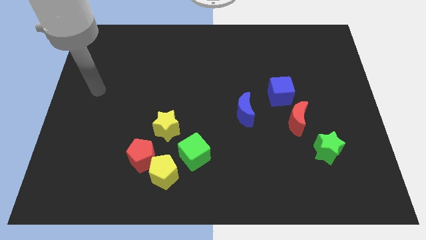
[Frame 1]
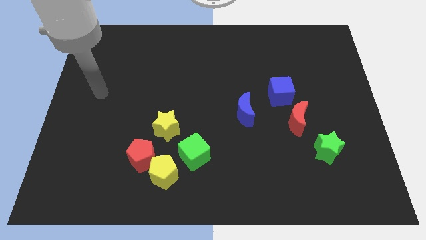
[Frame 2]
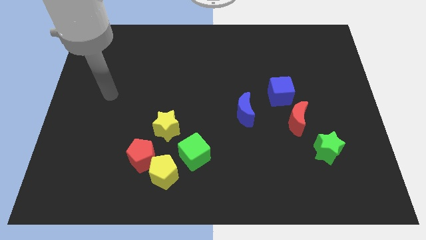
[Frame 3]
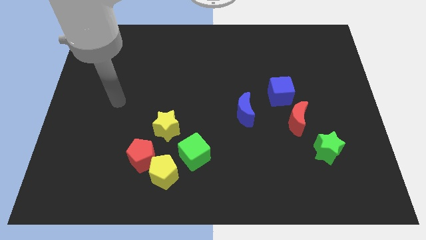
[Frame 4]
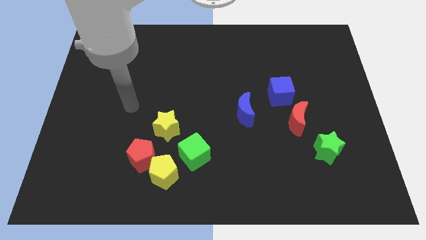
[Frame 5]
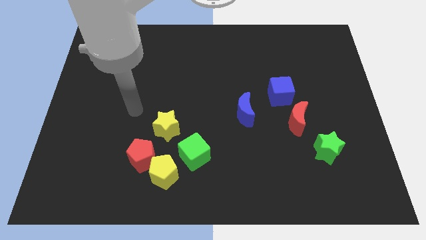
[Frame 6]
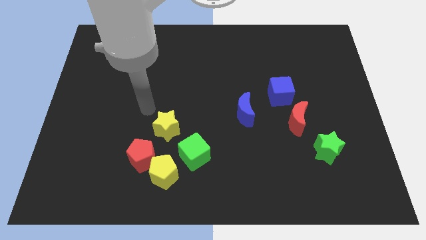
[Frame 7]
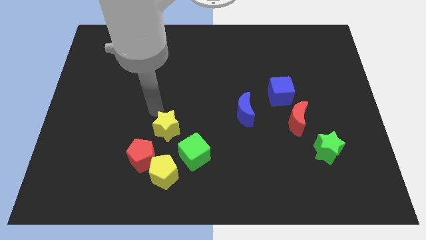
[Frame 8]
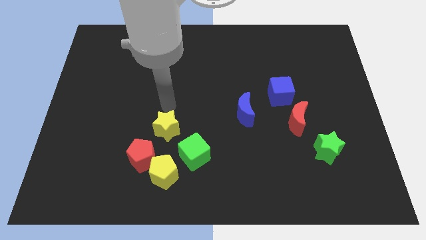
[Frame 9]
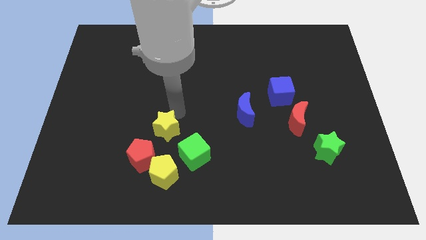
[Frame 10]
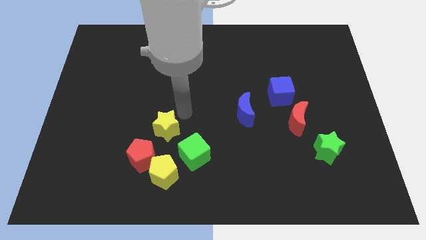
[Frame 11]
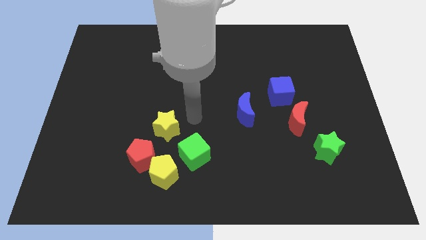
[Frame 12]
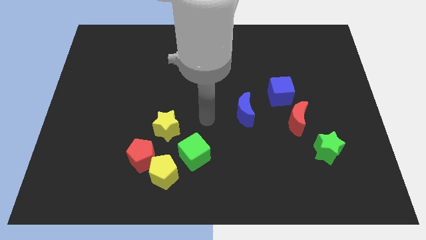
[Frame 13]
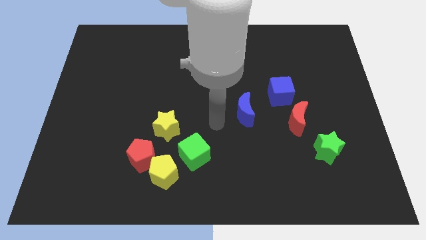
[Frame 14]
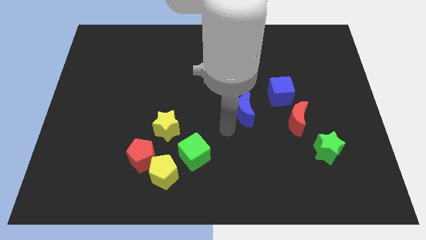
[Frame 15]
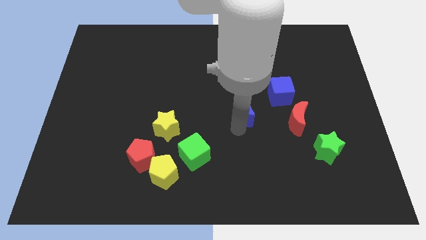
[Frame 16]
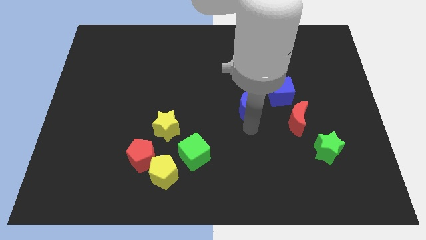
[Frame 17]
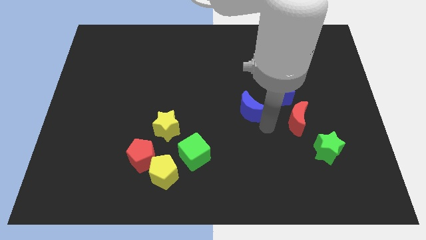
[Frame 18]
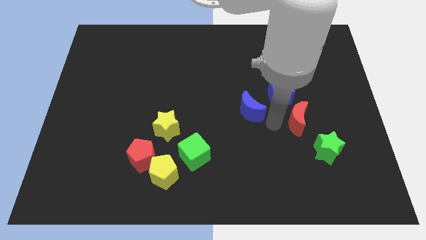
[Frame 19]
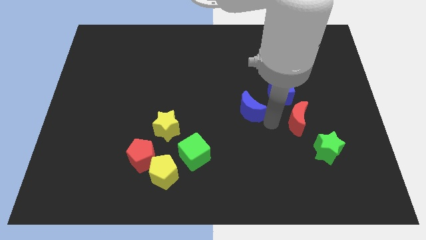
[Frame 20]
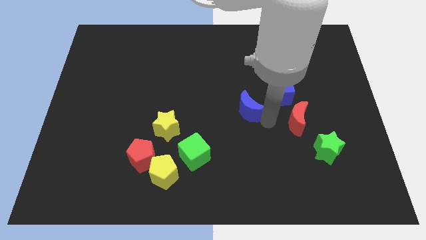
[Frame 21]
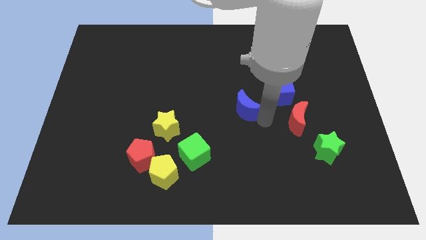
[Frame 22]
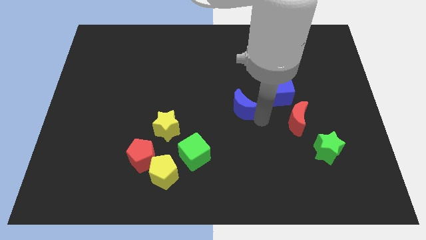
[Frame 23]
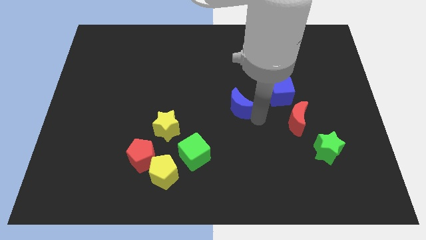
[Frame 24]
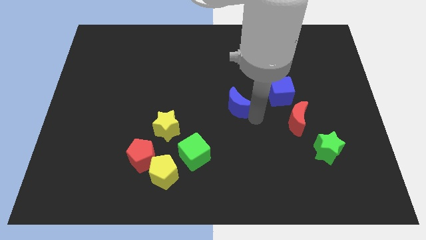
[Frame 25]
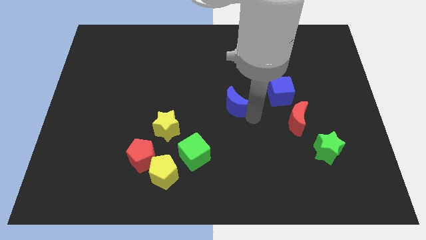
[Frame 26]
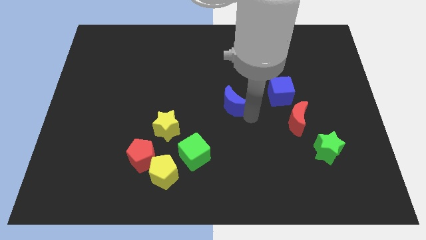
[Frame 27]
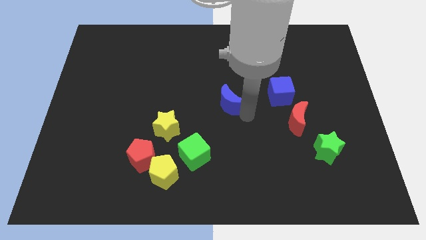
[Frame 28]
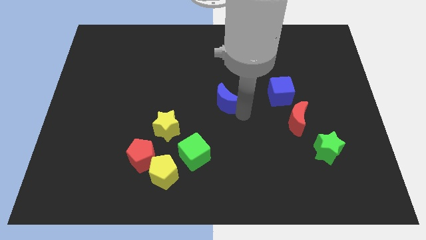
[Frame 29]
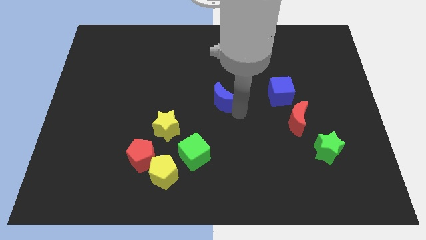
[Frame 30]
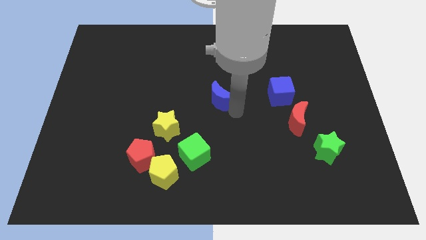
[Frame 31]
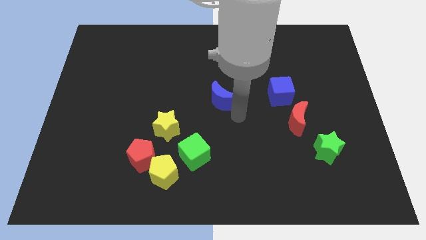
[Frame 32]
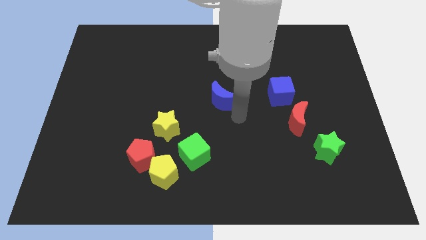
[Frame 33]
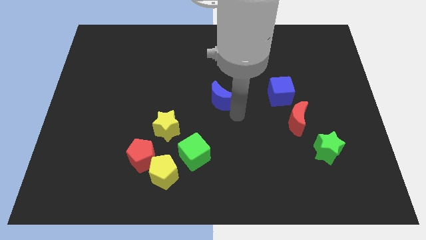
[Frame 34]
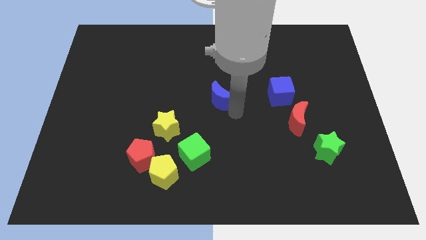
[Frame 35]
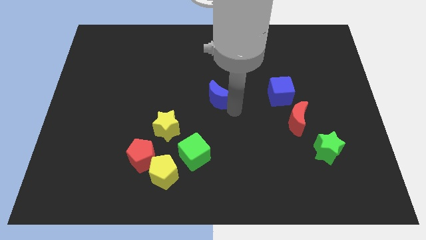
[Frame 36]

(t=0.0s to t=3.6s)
move the blue moon diagonally up and to the left slightly

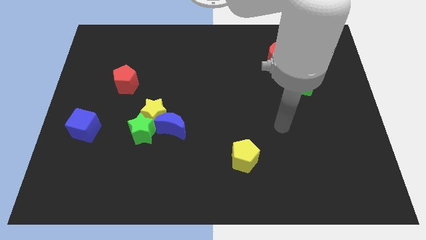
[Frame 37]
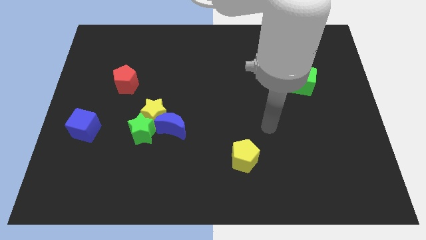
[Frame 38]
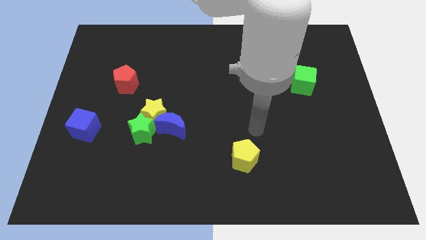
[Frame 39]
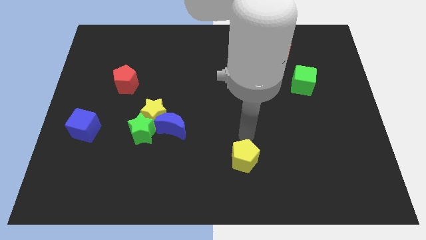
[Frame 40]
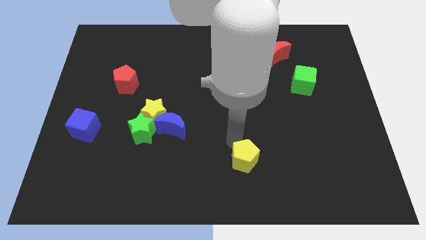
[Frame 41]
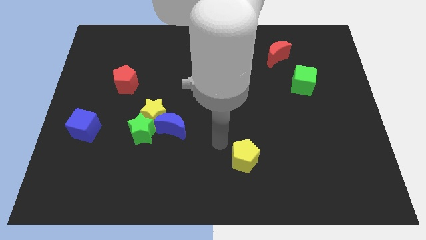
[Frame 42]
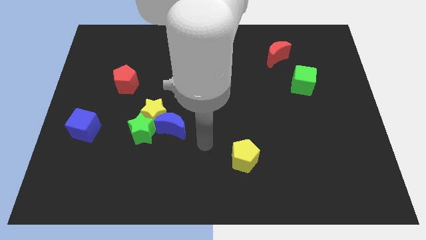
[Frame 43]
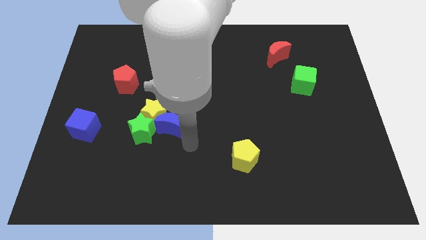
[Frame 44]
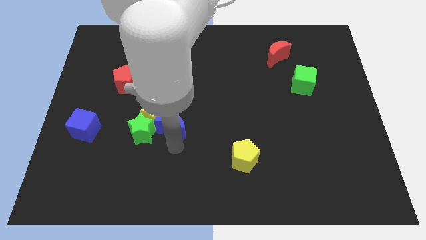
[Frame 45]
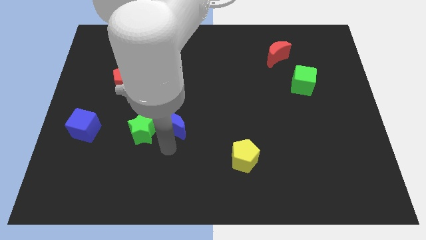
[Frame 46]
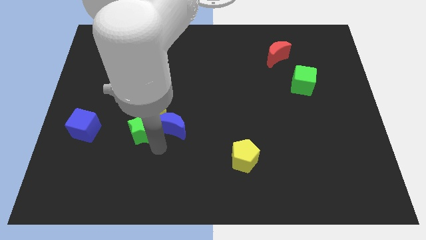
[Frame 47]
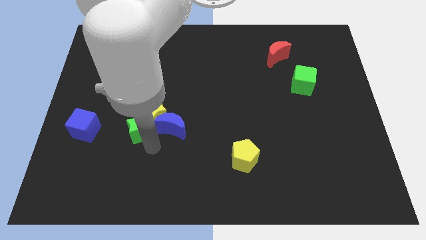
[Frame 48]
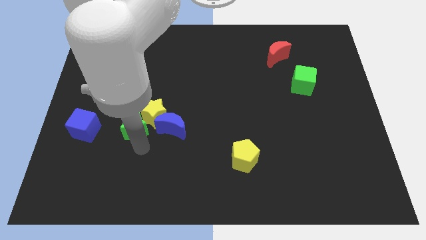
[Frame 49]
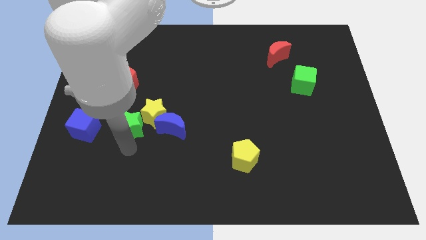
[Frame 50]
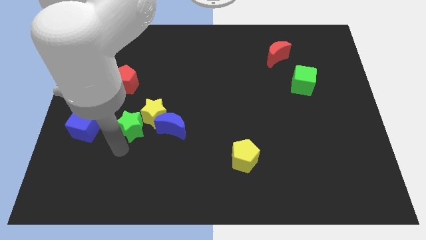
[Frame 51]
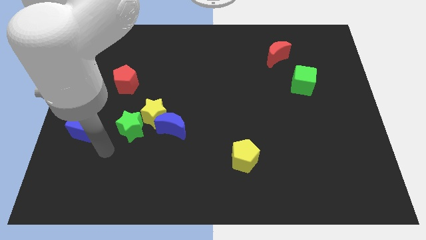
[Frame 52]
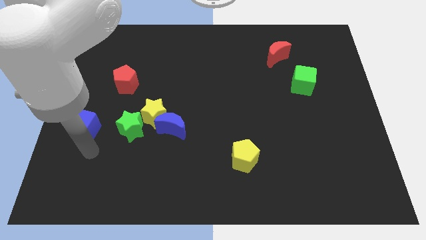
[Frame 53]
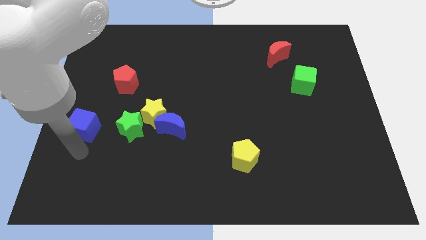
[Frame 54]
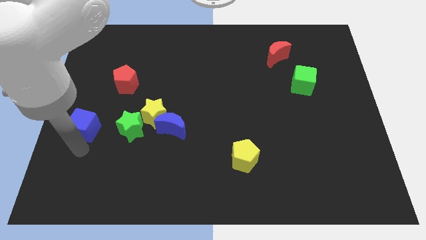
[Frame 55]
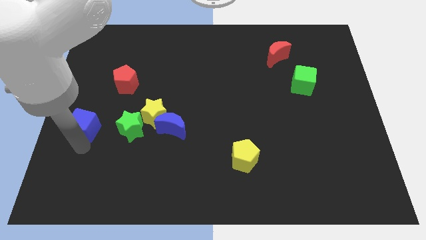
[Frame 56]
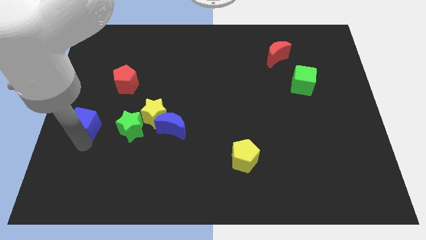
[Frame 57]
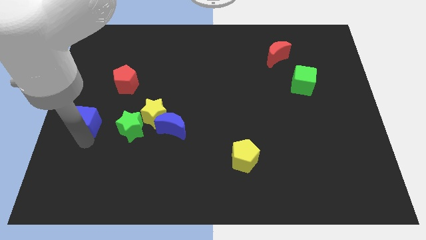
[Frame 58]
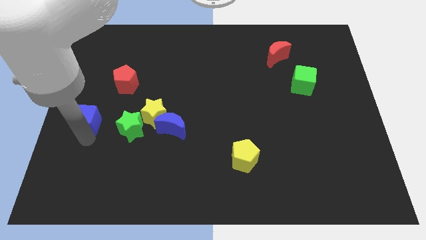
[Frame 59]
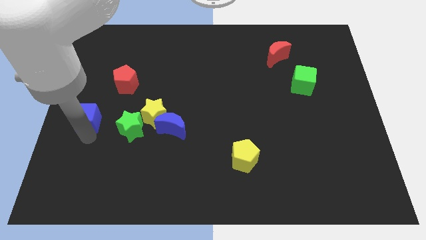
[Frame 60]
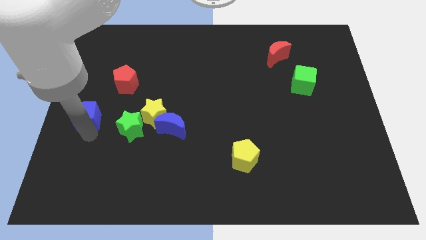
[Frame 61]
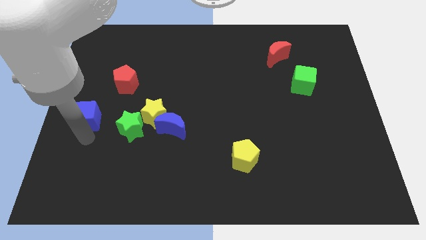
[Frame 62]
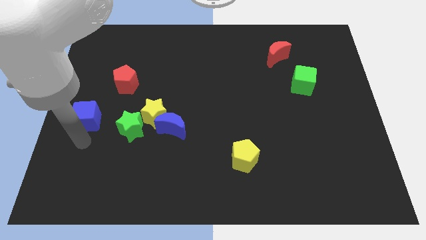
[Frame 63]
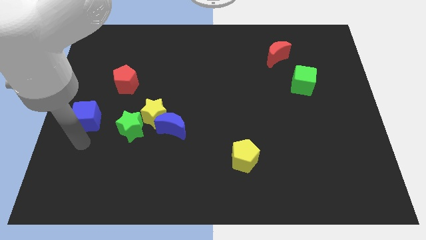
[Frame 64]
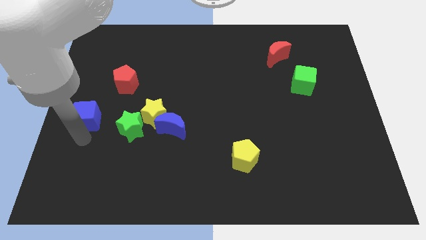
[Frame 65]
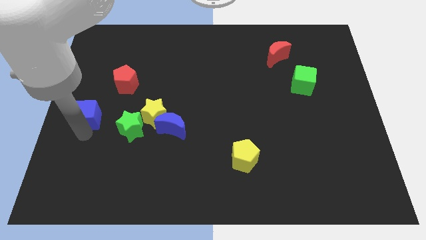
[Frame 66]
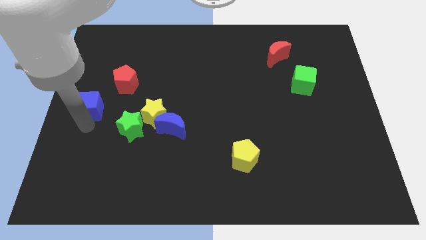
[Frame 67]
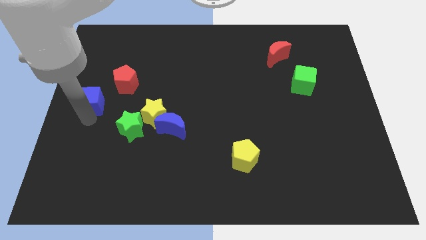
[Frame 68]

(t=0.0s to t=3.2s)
slightly move the blue cube up

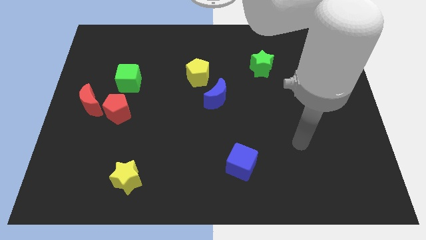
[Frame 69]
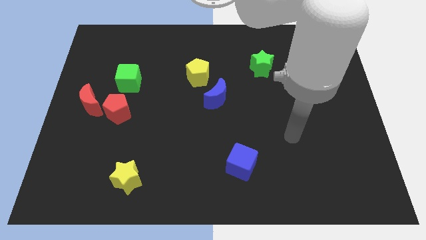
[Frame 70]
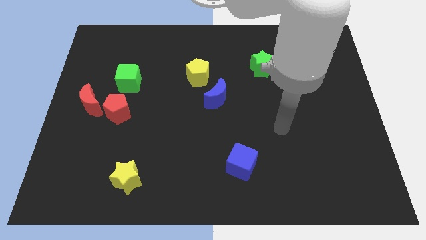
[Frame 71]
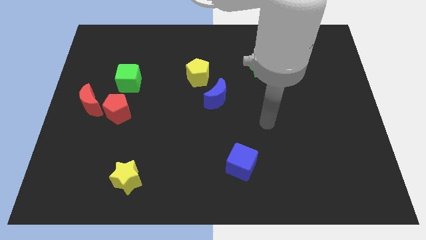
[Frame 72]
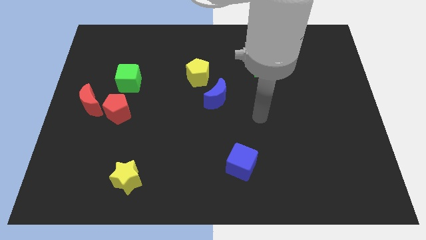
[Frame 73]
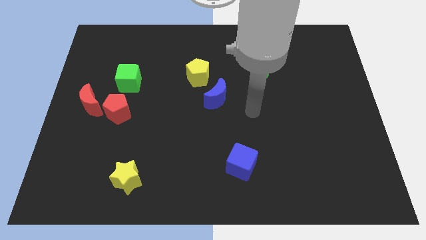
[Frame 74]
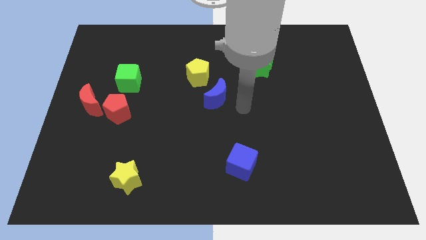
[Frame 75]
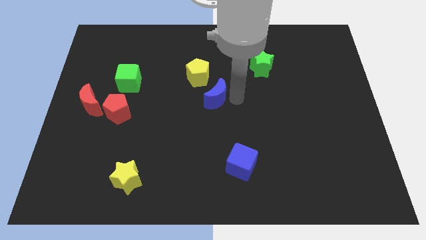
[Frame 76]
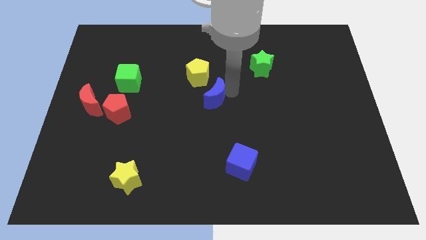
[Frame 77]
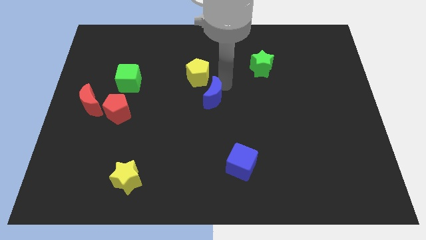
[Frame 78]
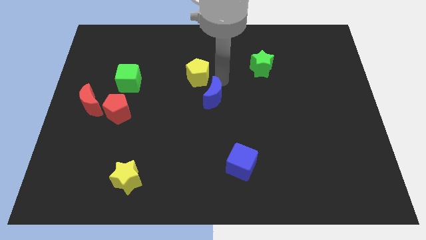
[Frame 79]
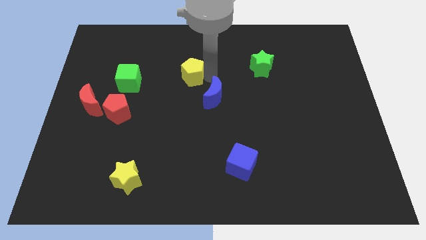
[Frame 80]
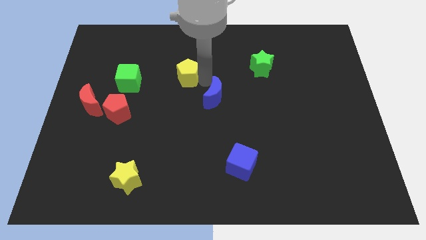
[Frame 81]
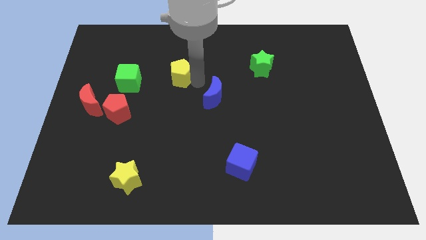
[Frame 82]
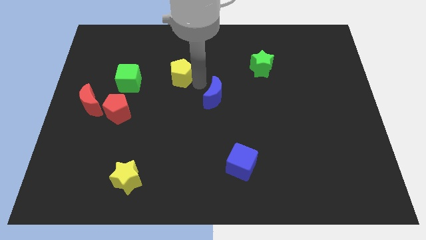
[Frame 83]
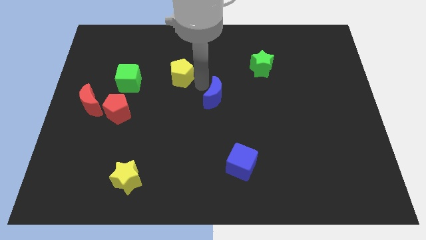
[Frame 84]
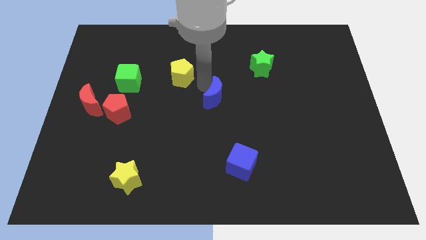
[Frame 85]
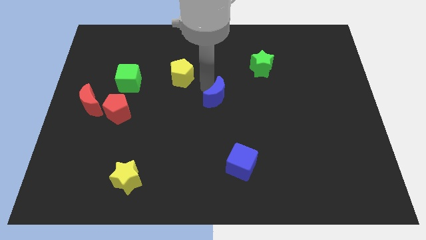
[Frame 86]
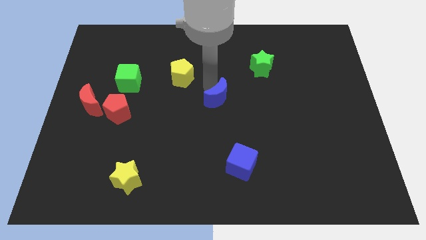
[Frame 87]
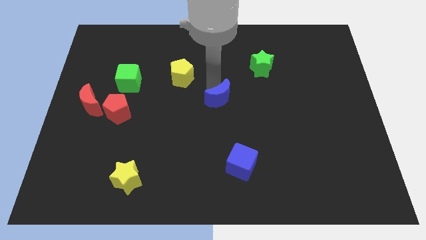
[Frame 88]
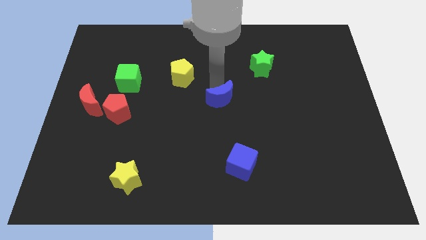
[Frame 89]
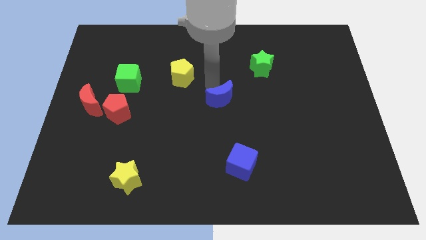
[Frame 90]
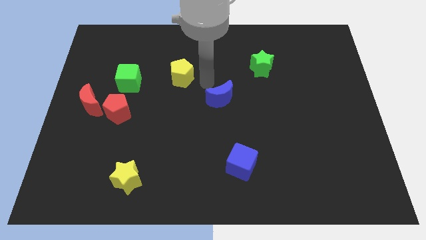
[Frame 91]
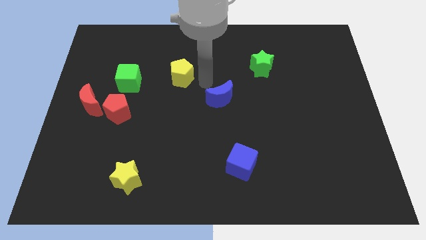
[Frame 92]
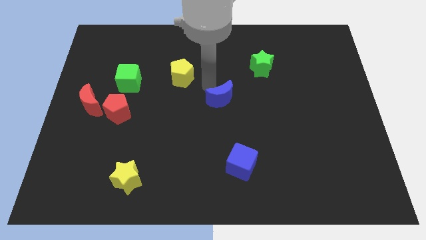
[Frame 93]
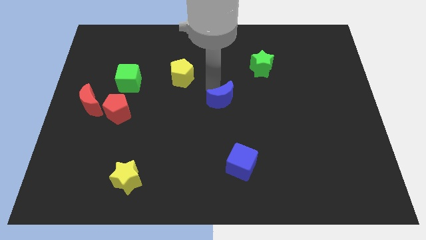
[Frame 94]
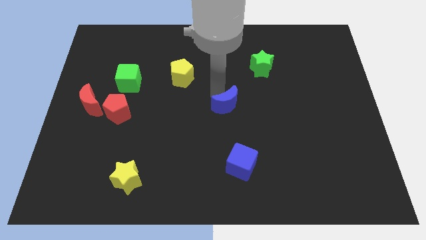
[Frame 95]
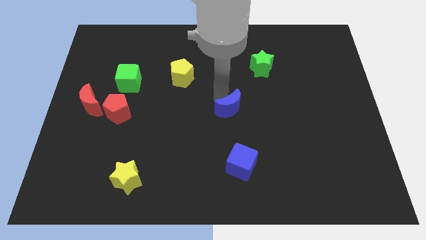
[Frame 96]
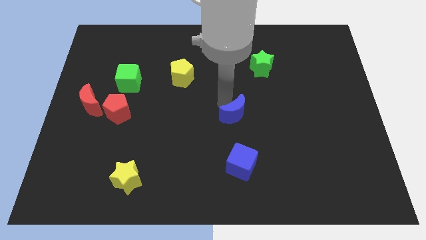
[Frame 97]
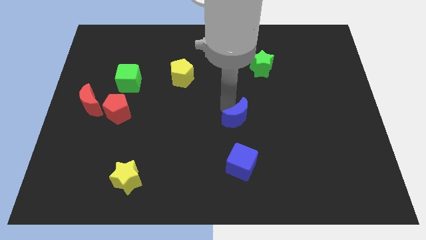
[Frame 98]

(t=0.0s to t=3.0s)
push the blue moon a little downwards and right diagonally
